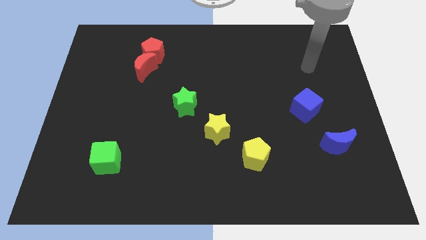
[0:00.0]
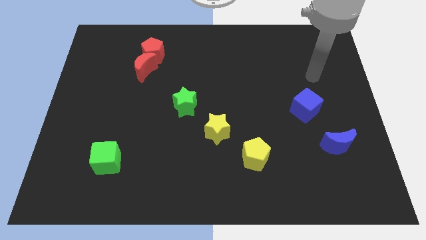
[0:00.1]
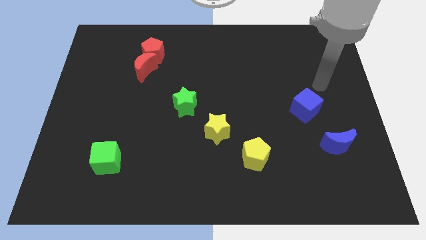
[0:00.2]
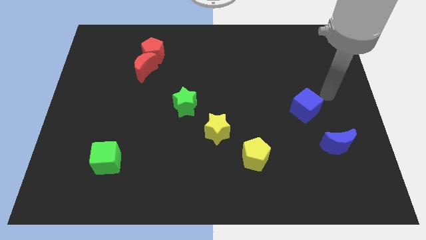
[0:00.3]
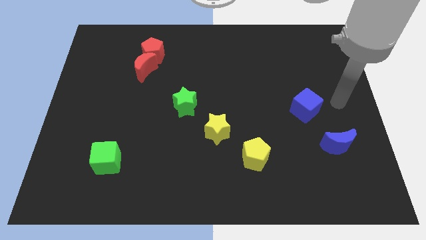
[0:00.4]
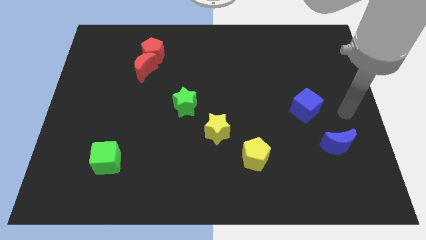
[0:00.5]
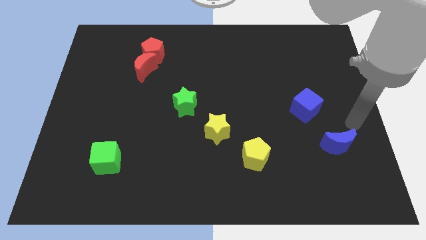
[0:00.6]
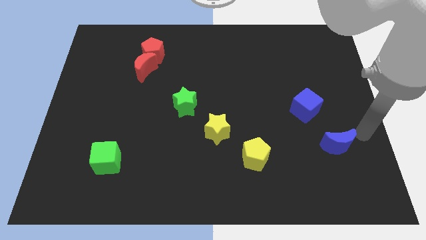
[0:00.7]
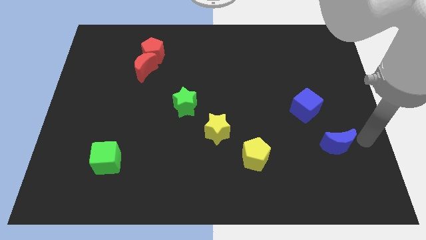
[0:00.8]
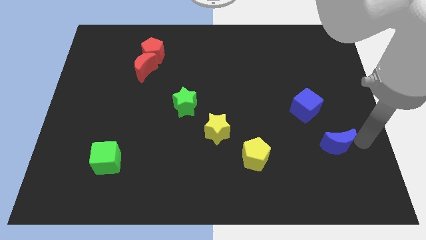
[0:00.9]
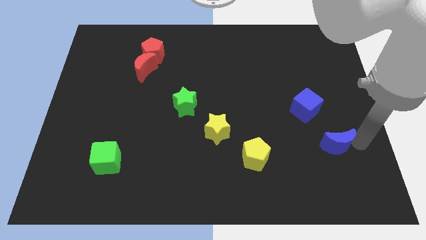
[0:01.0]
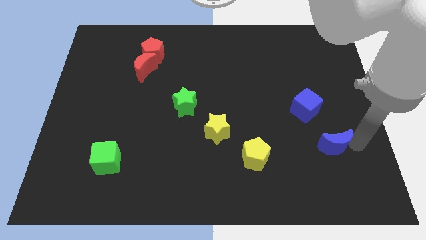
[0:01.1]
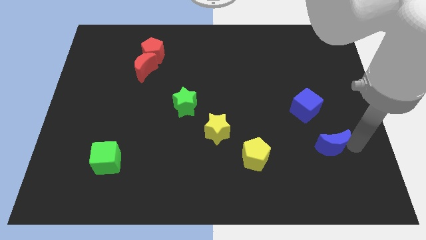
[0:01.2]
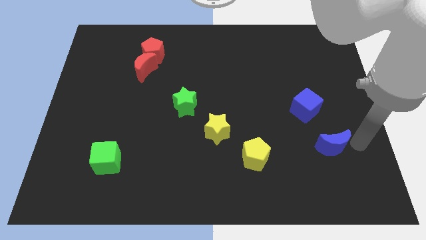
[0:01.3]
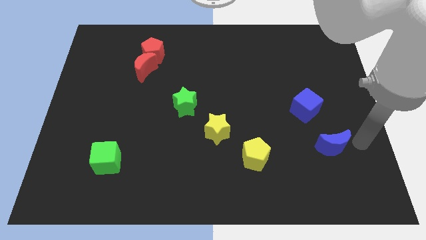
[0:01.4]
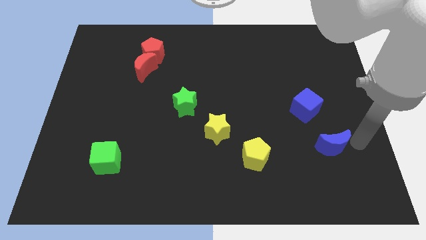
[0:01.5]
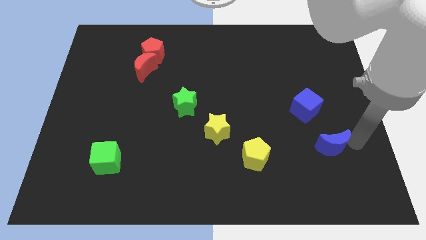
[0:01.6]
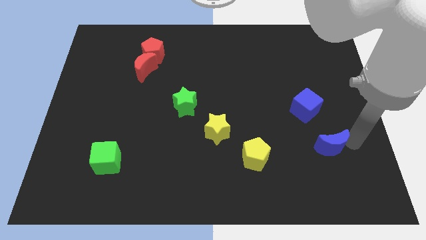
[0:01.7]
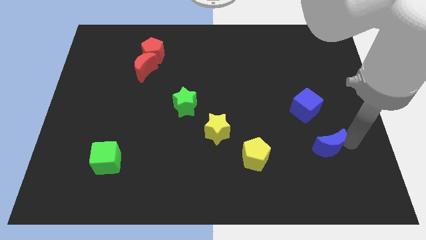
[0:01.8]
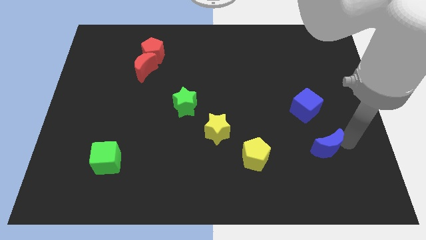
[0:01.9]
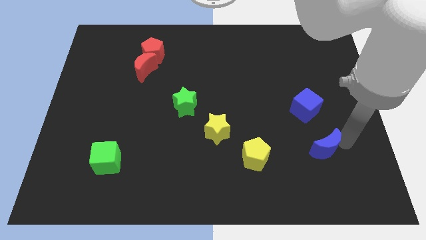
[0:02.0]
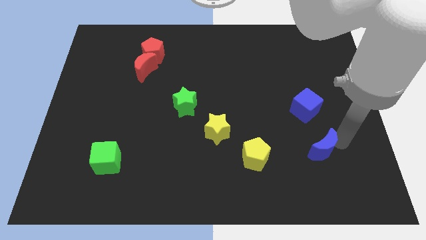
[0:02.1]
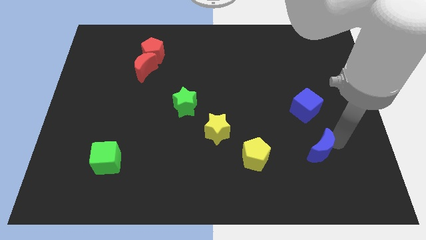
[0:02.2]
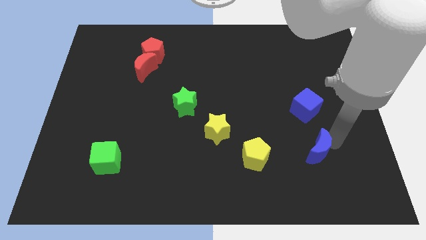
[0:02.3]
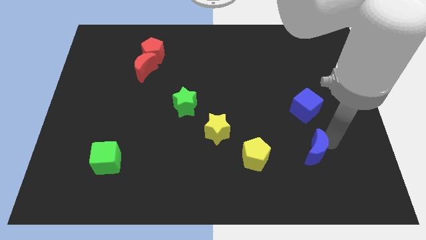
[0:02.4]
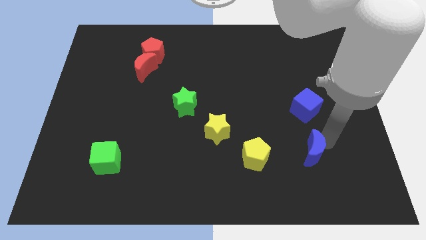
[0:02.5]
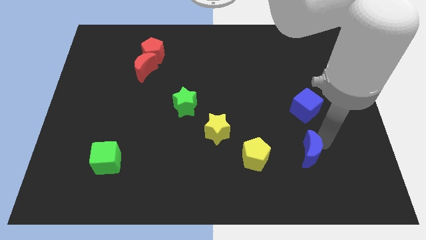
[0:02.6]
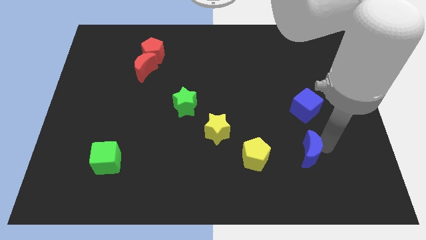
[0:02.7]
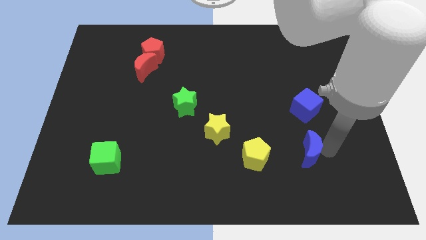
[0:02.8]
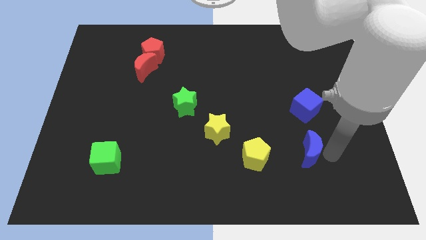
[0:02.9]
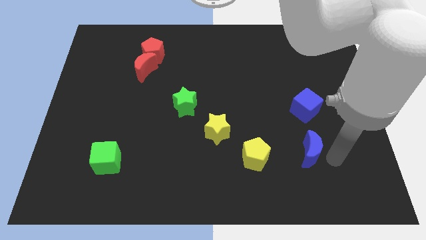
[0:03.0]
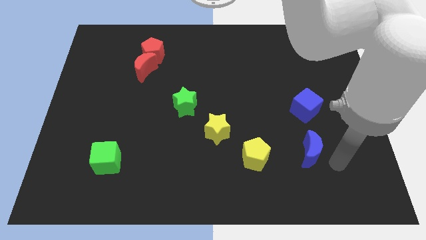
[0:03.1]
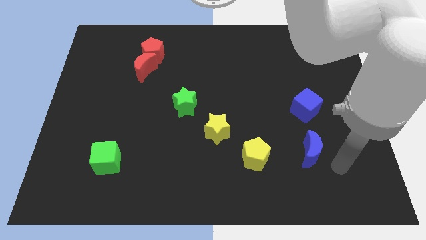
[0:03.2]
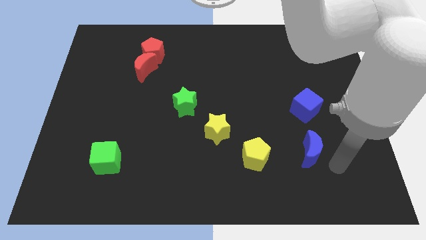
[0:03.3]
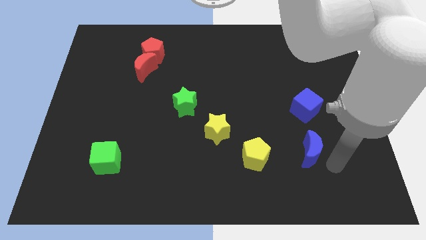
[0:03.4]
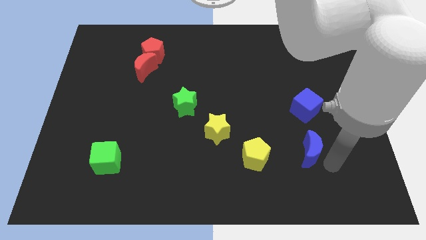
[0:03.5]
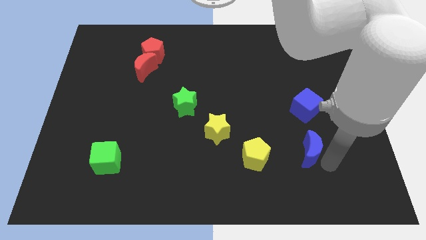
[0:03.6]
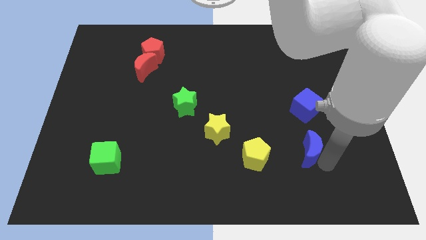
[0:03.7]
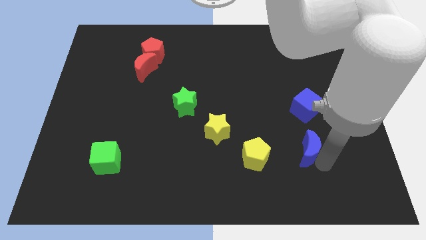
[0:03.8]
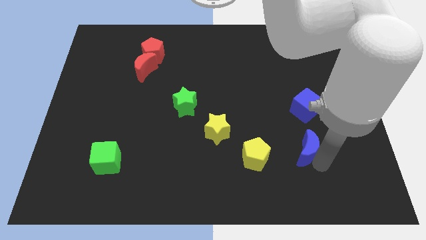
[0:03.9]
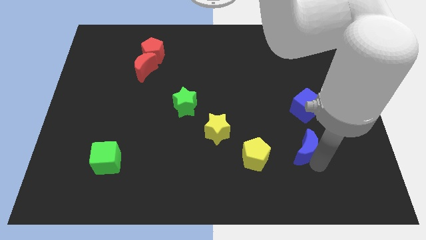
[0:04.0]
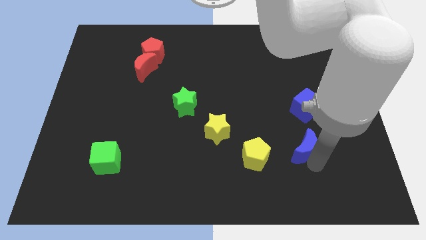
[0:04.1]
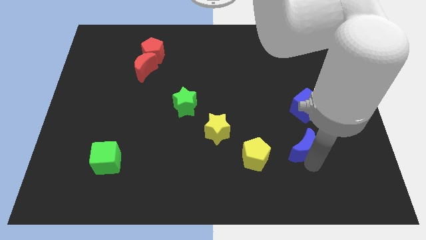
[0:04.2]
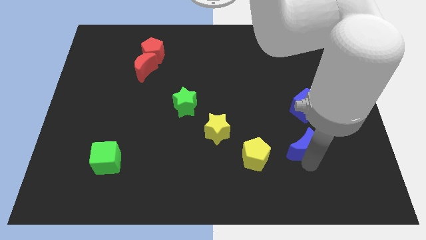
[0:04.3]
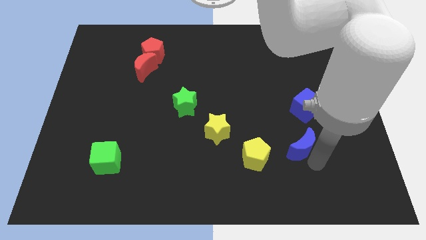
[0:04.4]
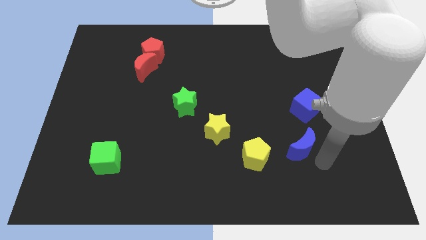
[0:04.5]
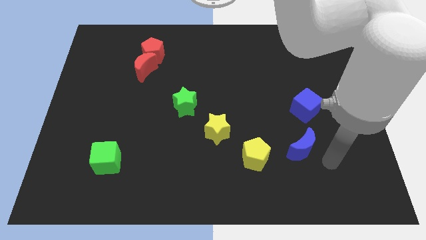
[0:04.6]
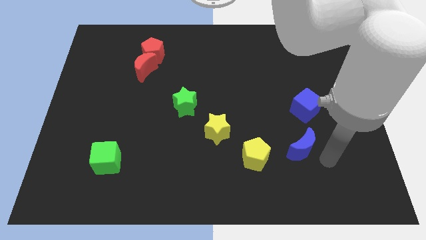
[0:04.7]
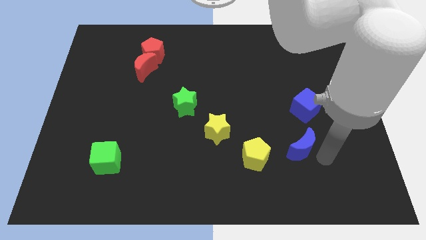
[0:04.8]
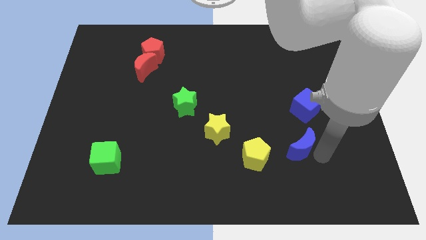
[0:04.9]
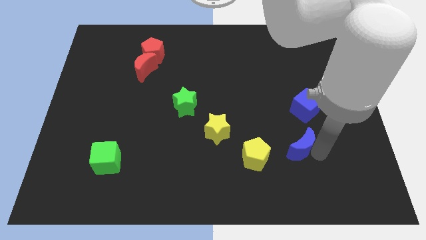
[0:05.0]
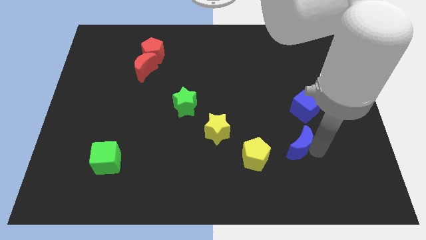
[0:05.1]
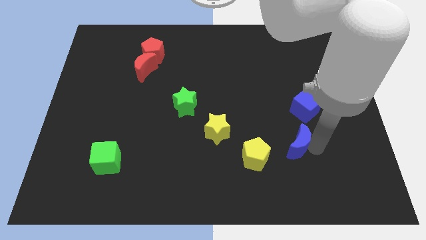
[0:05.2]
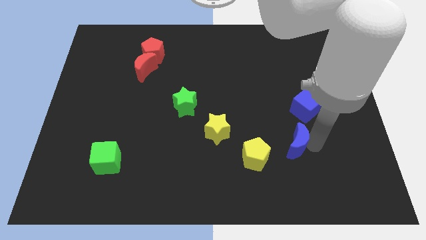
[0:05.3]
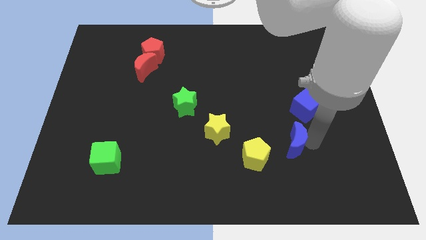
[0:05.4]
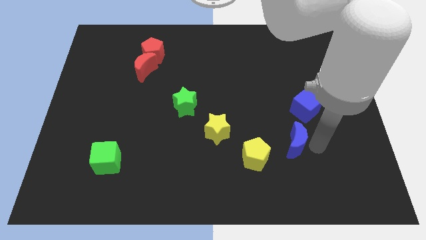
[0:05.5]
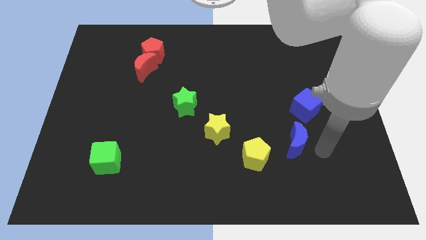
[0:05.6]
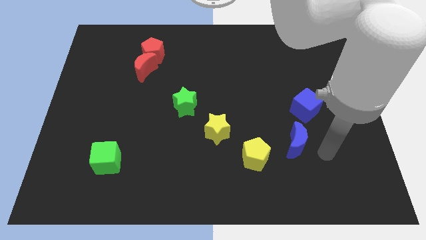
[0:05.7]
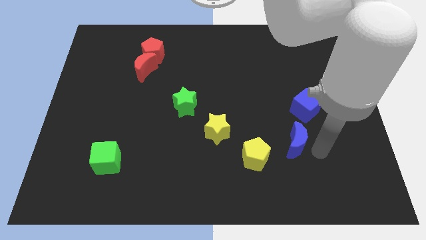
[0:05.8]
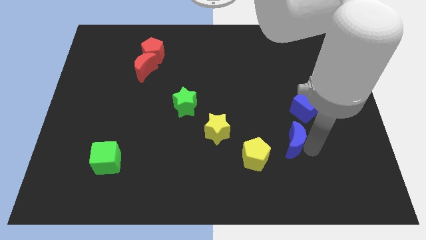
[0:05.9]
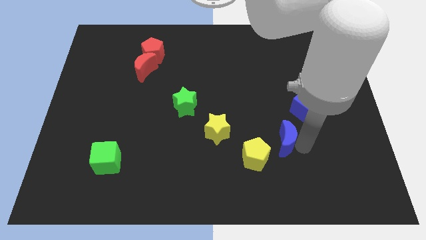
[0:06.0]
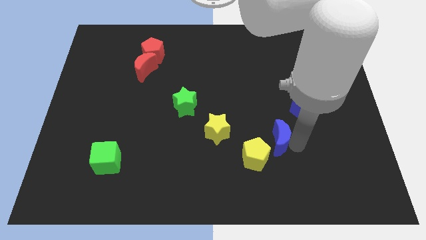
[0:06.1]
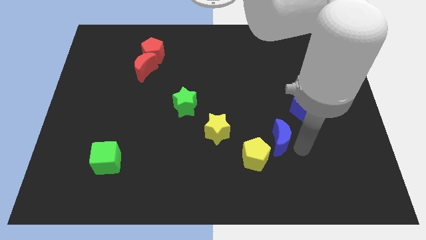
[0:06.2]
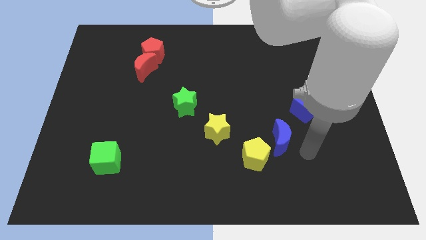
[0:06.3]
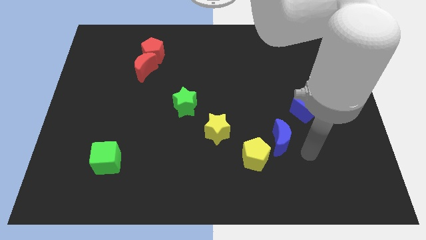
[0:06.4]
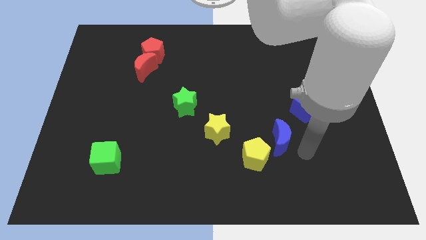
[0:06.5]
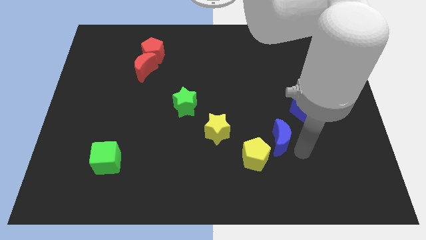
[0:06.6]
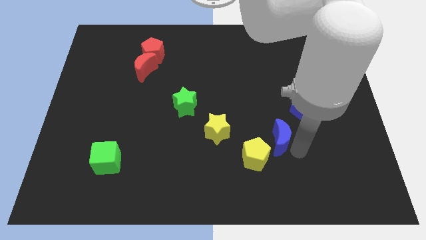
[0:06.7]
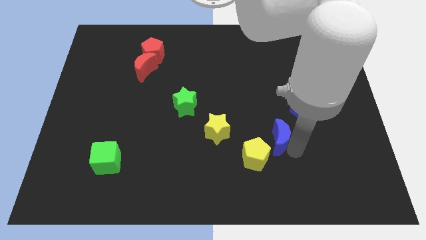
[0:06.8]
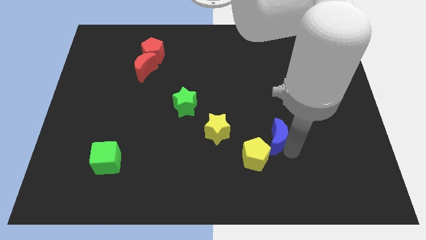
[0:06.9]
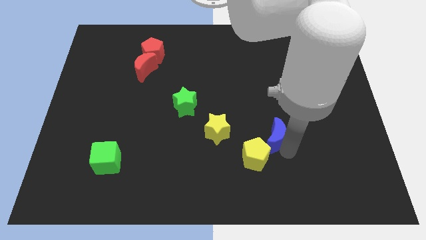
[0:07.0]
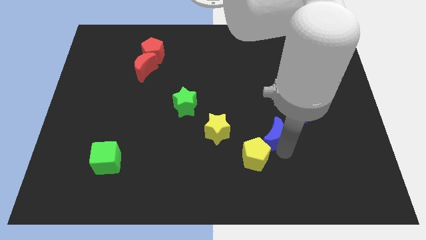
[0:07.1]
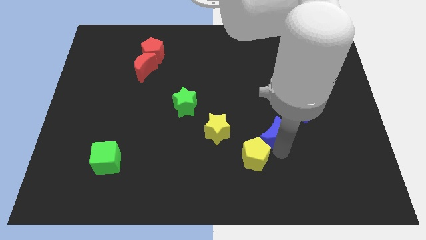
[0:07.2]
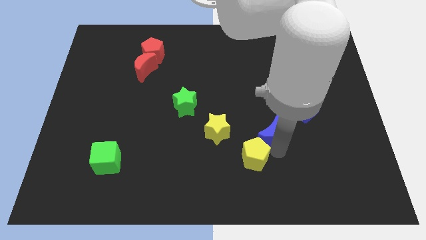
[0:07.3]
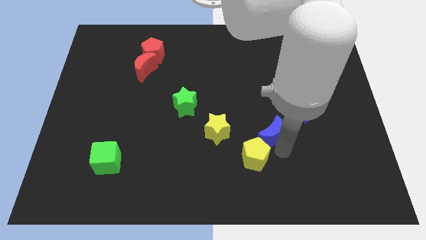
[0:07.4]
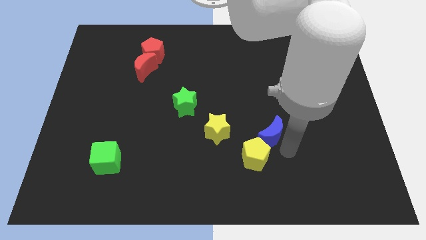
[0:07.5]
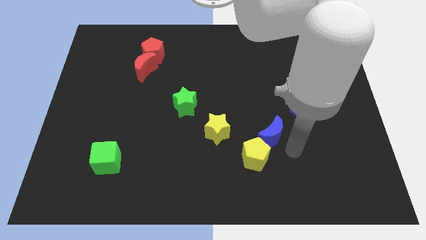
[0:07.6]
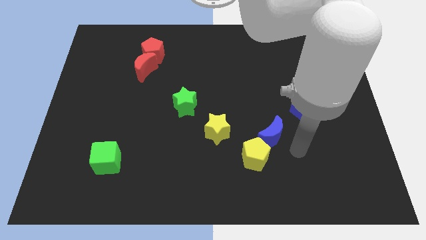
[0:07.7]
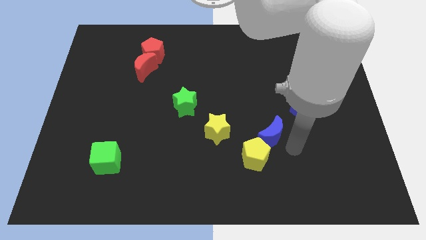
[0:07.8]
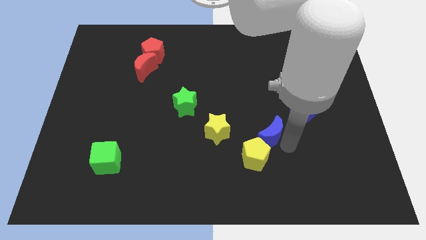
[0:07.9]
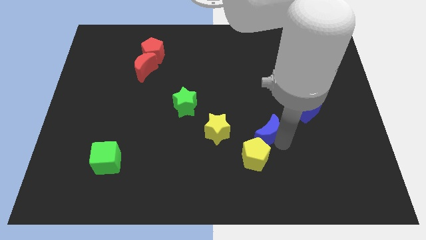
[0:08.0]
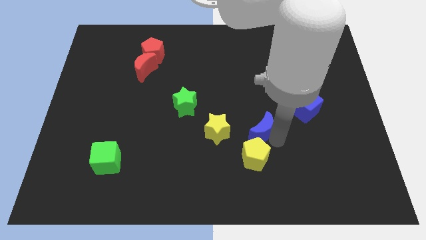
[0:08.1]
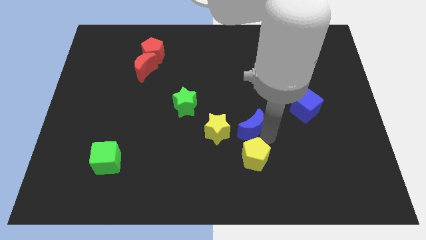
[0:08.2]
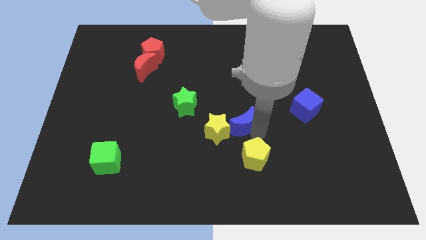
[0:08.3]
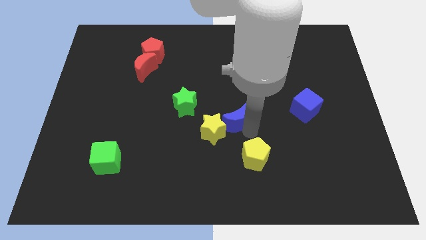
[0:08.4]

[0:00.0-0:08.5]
put the blue moon to the right side of the green star
